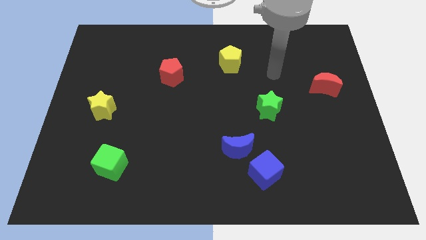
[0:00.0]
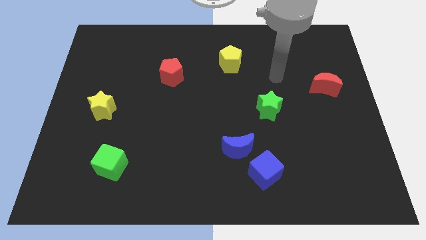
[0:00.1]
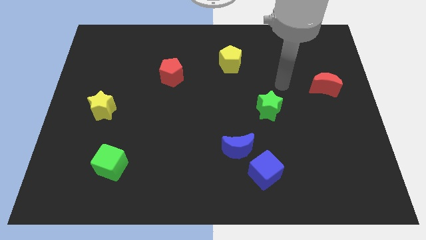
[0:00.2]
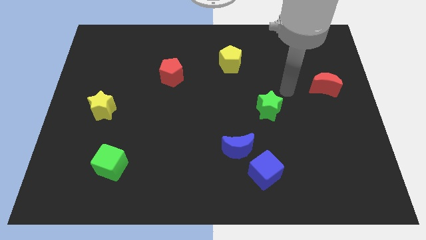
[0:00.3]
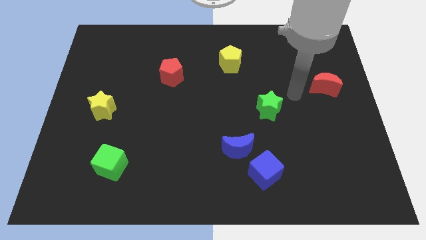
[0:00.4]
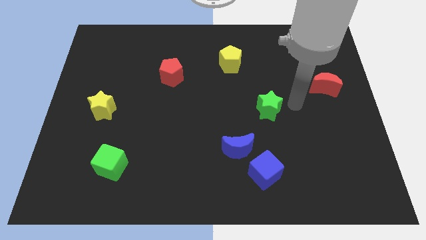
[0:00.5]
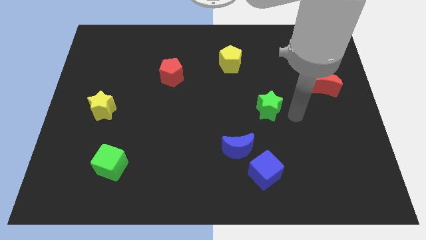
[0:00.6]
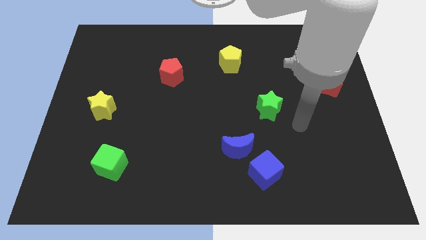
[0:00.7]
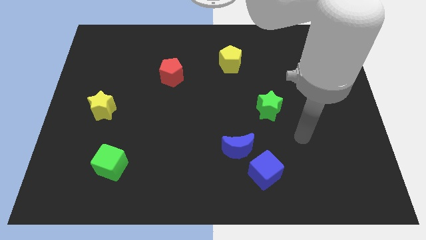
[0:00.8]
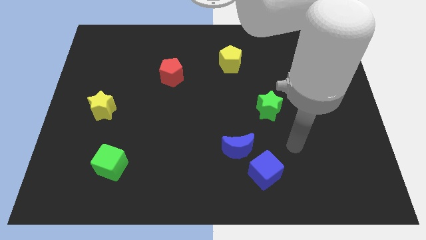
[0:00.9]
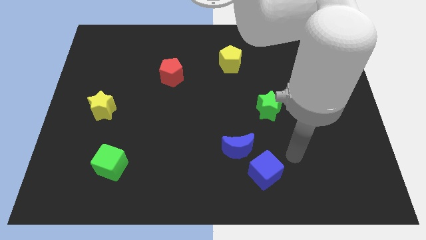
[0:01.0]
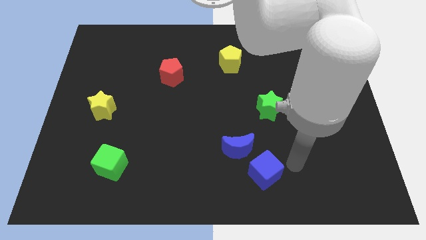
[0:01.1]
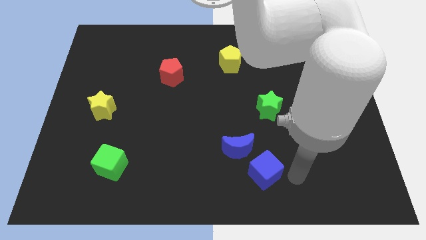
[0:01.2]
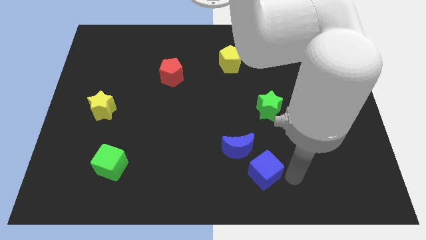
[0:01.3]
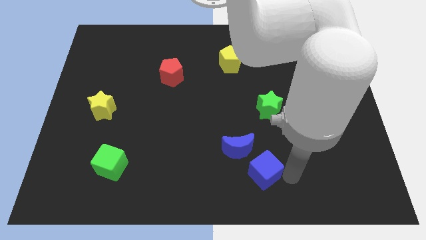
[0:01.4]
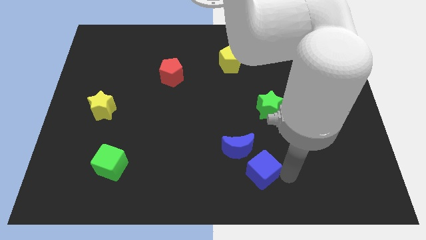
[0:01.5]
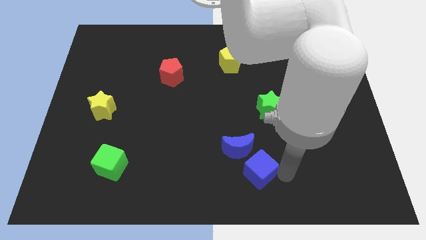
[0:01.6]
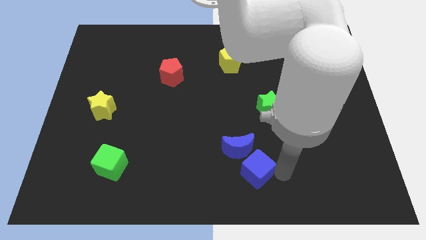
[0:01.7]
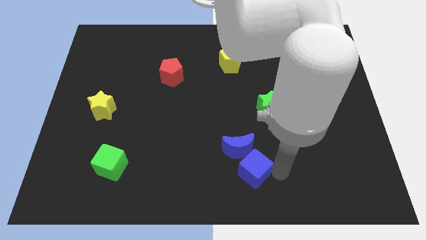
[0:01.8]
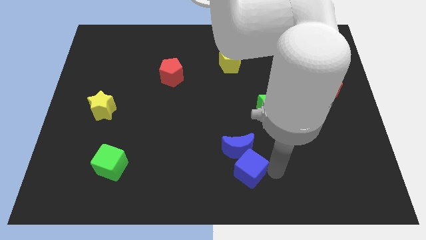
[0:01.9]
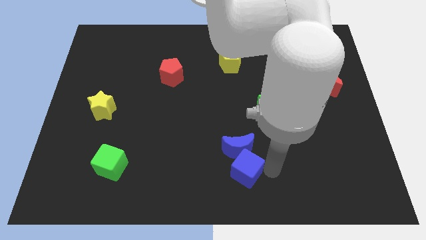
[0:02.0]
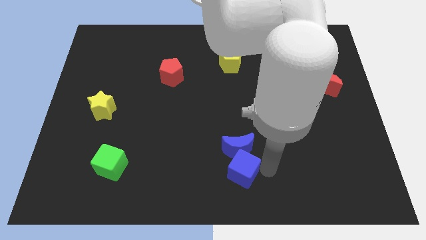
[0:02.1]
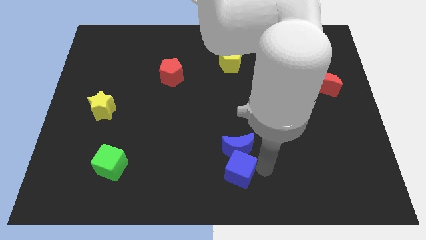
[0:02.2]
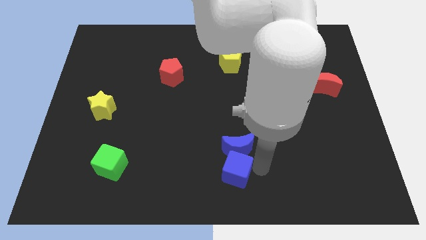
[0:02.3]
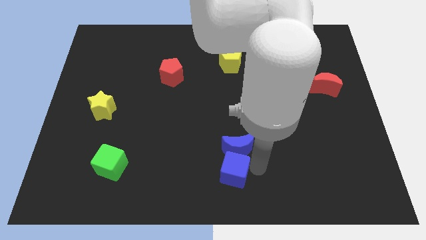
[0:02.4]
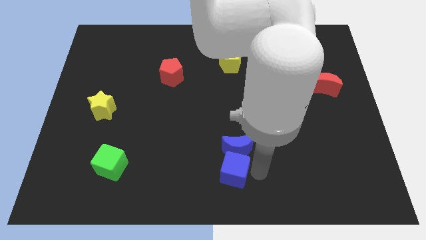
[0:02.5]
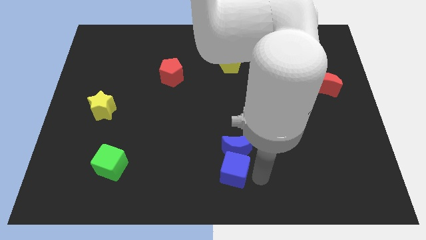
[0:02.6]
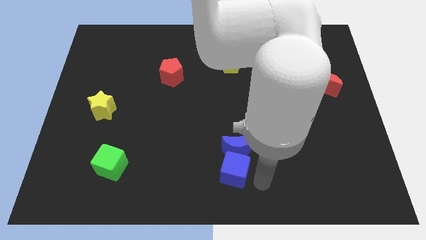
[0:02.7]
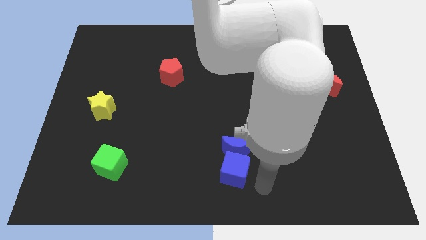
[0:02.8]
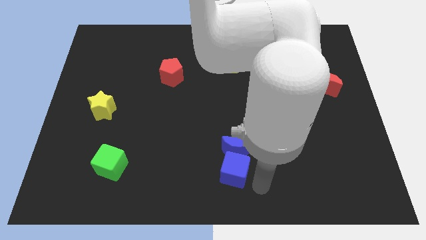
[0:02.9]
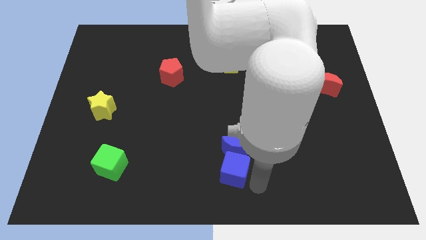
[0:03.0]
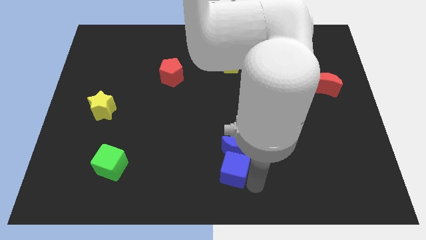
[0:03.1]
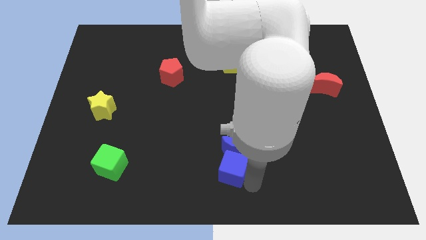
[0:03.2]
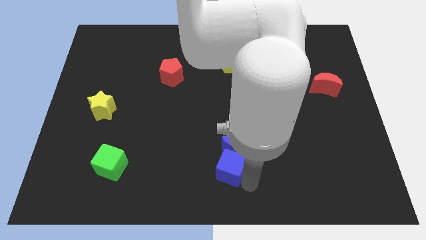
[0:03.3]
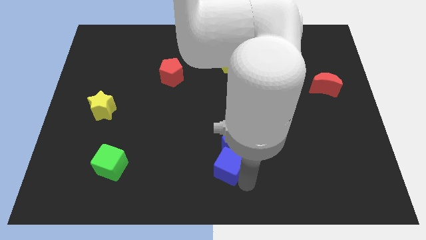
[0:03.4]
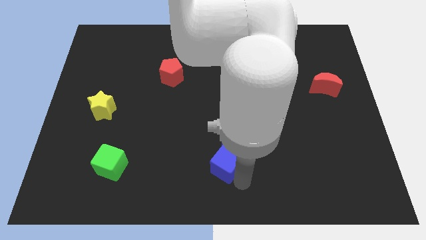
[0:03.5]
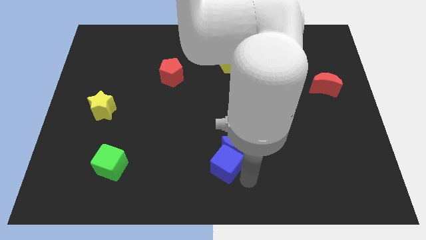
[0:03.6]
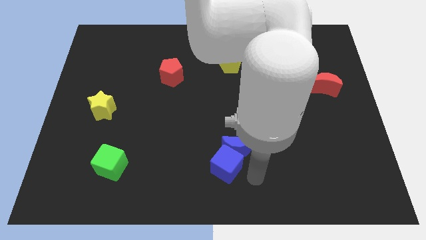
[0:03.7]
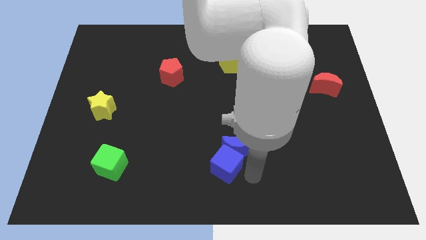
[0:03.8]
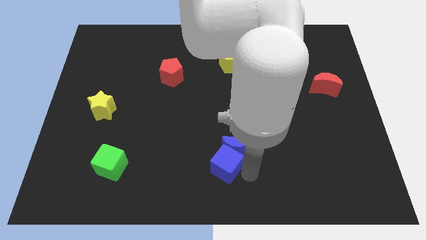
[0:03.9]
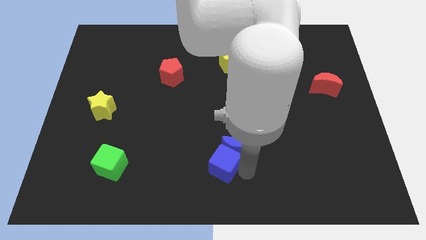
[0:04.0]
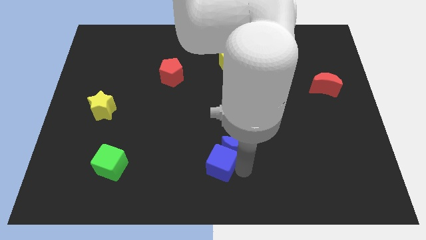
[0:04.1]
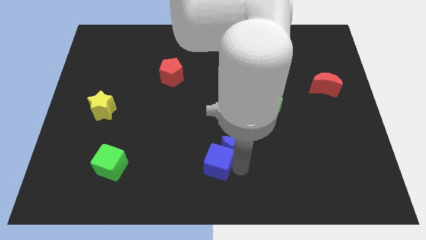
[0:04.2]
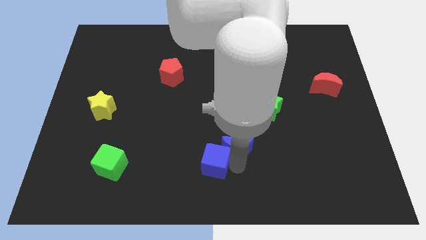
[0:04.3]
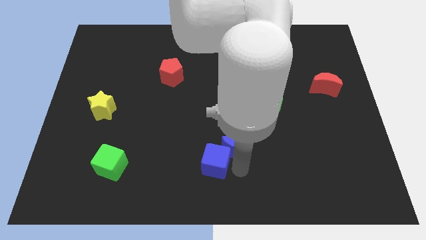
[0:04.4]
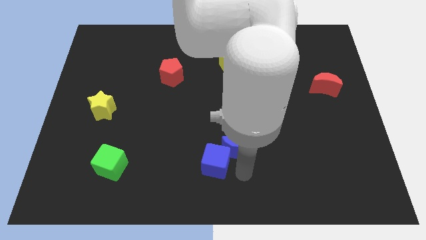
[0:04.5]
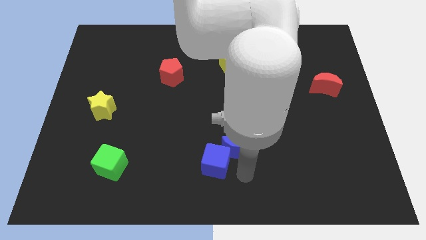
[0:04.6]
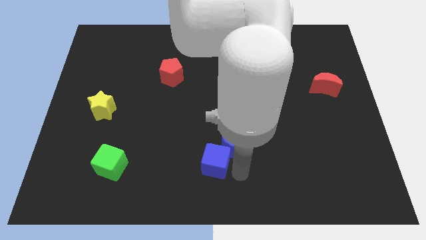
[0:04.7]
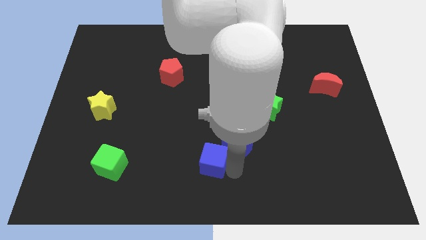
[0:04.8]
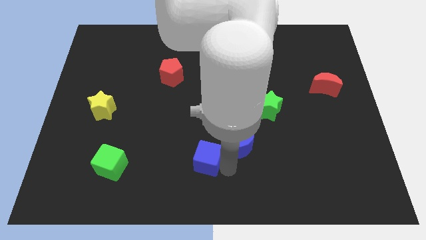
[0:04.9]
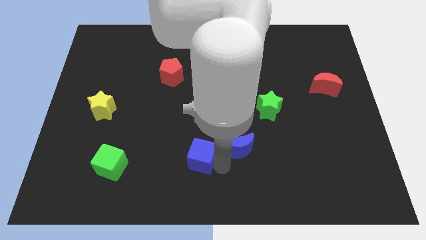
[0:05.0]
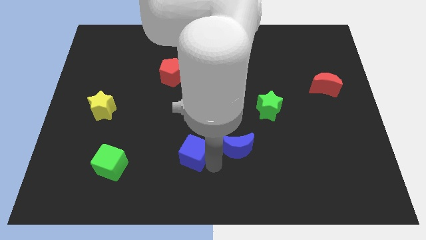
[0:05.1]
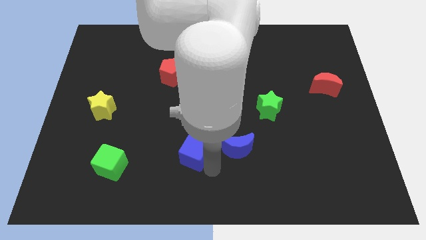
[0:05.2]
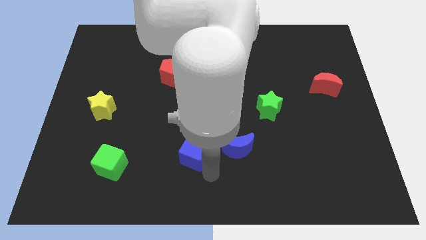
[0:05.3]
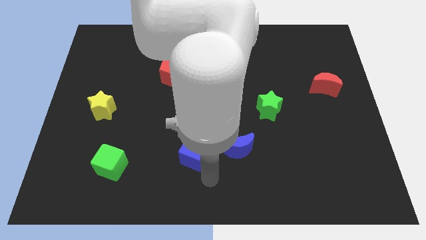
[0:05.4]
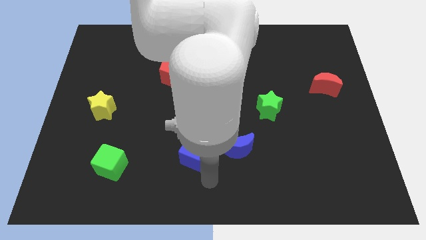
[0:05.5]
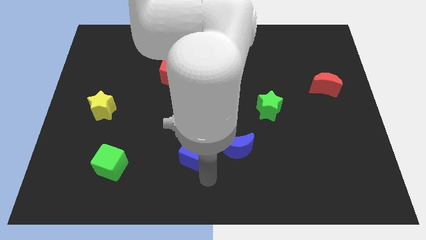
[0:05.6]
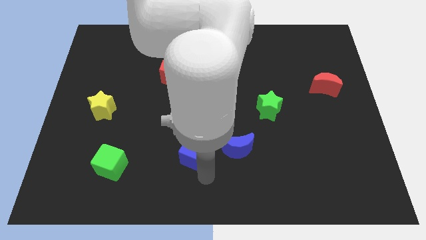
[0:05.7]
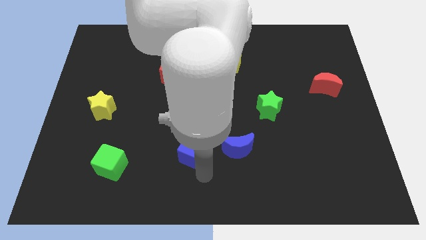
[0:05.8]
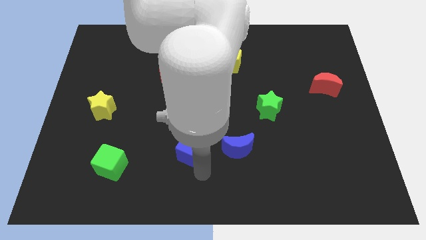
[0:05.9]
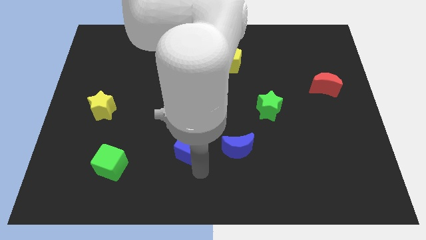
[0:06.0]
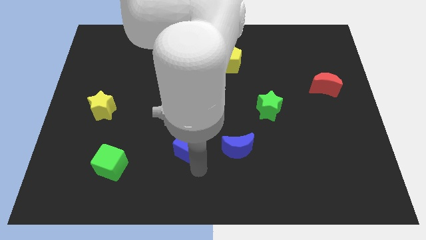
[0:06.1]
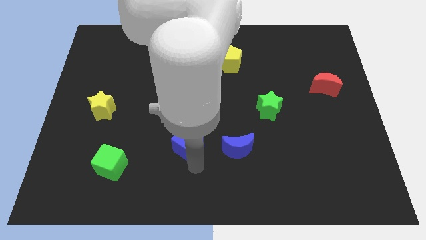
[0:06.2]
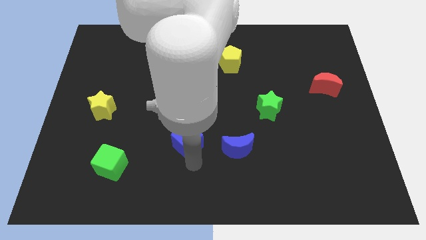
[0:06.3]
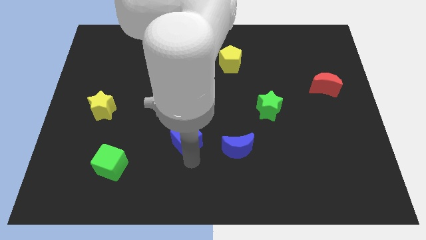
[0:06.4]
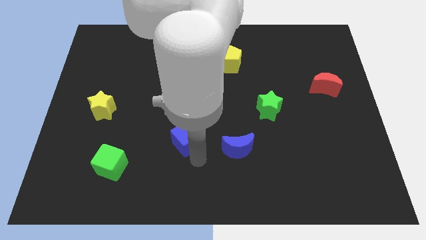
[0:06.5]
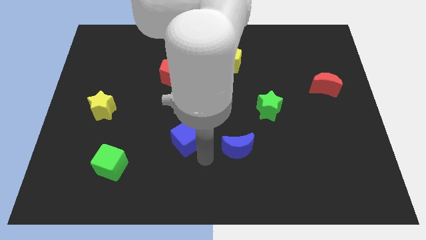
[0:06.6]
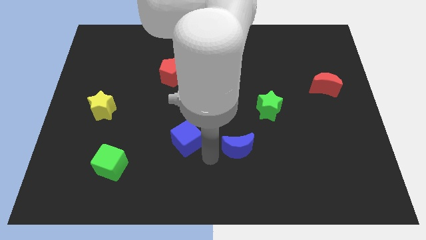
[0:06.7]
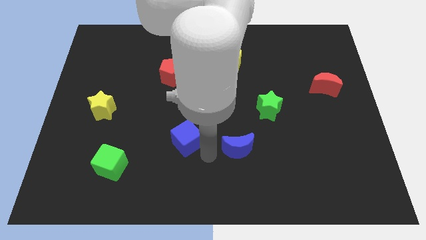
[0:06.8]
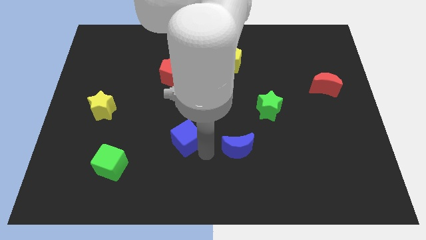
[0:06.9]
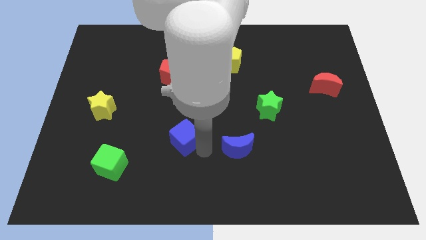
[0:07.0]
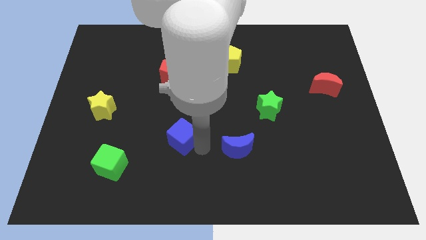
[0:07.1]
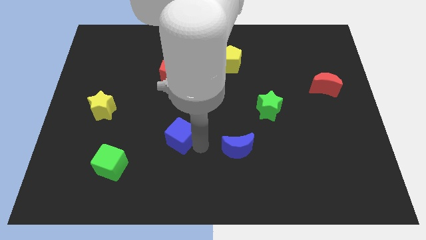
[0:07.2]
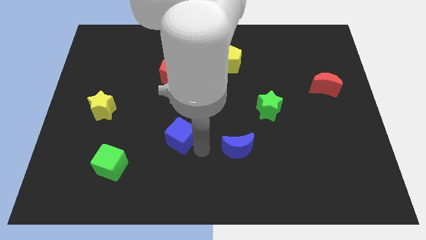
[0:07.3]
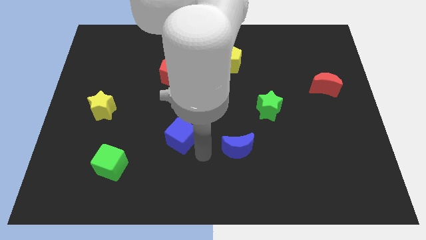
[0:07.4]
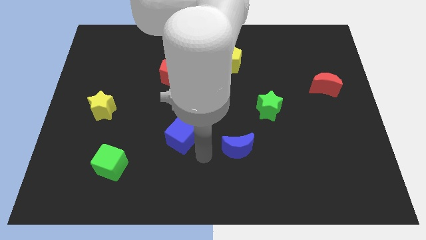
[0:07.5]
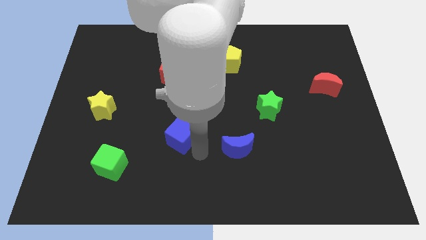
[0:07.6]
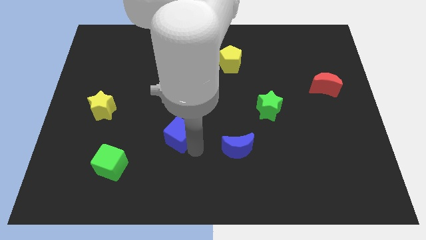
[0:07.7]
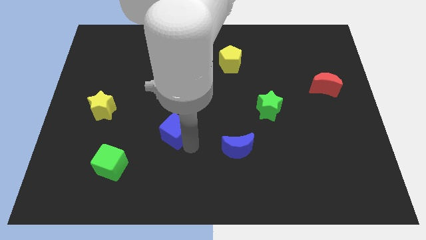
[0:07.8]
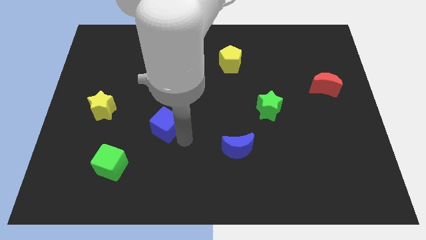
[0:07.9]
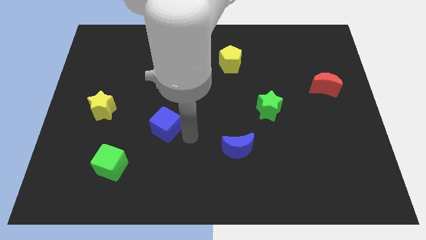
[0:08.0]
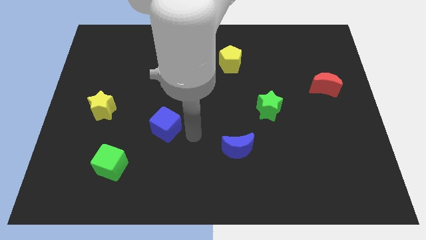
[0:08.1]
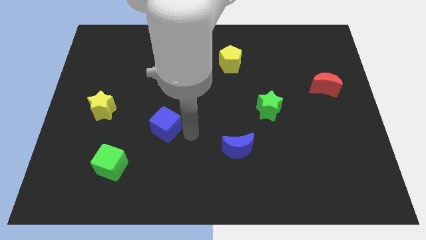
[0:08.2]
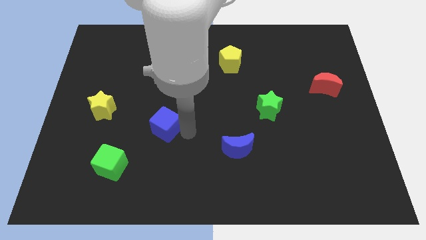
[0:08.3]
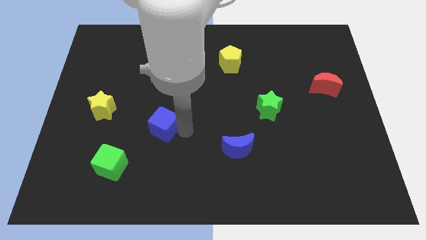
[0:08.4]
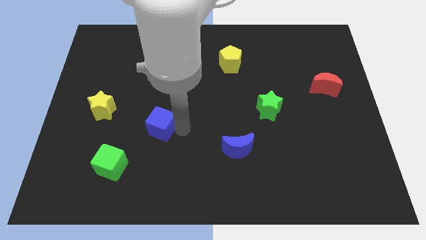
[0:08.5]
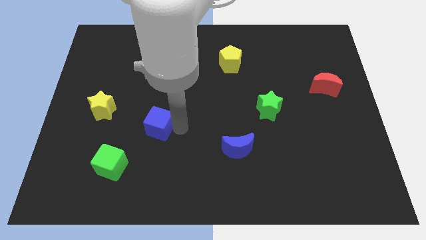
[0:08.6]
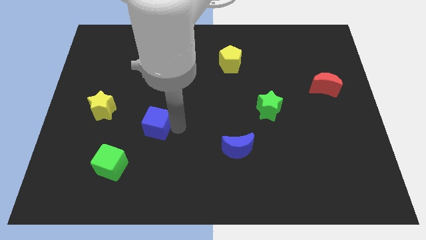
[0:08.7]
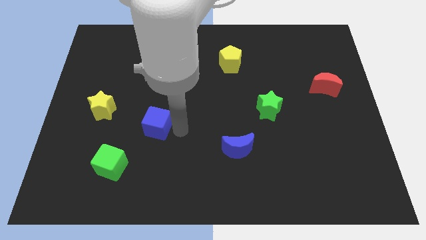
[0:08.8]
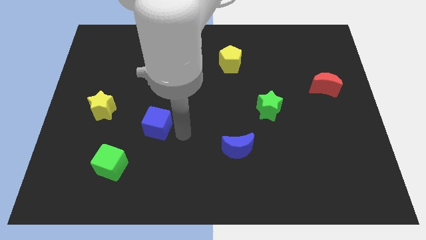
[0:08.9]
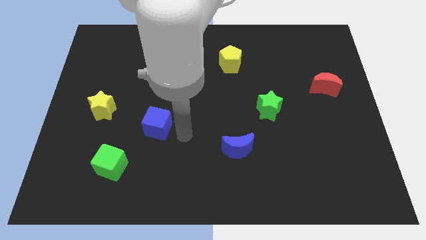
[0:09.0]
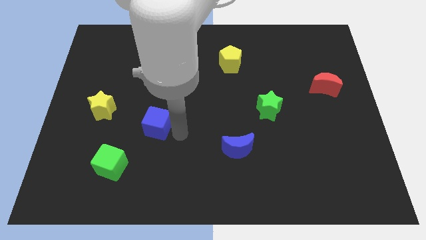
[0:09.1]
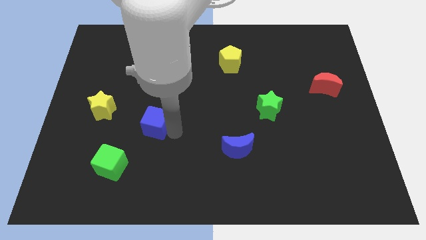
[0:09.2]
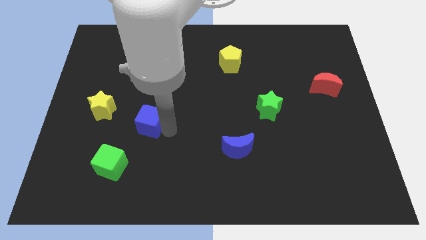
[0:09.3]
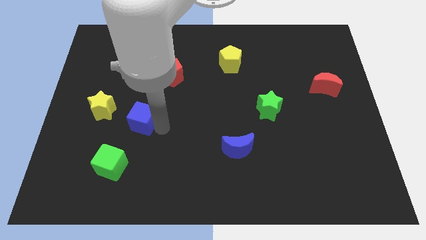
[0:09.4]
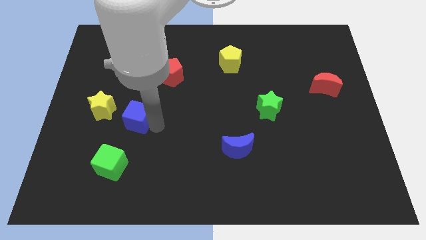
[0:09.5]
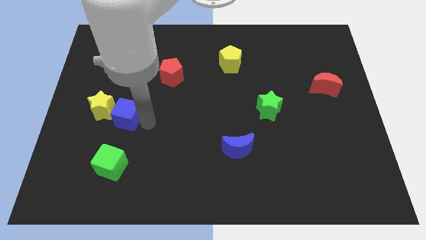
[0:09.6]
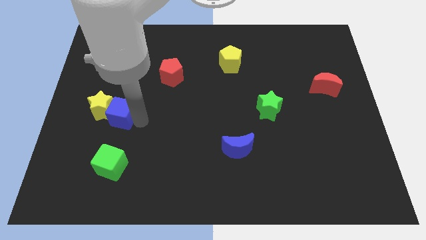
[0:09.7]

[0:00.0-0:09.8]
push the blue cube to the yellow star
